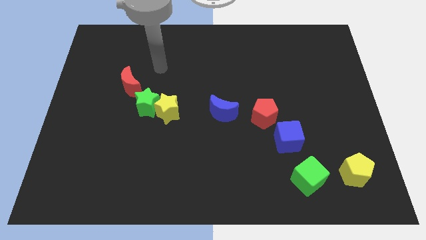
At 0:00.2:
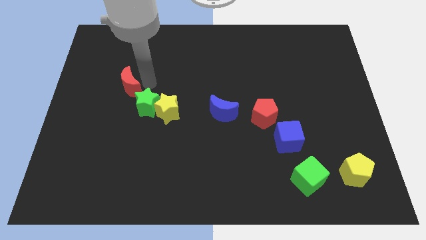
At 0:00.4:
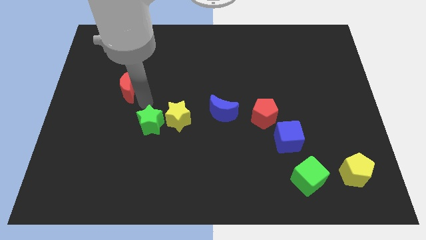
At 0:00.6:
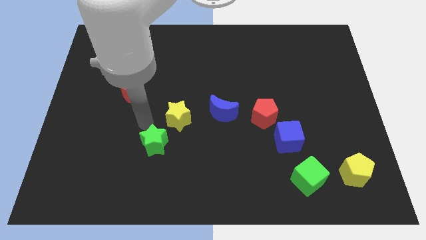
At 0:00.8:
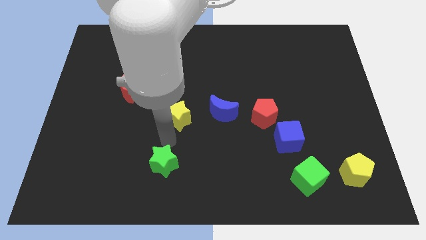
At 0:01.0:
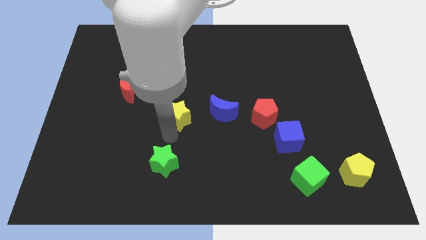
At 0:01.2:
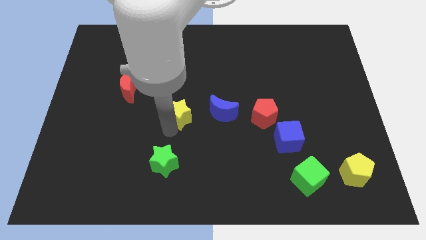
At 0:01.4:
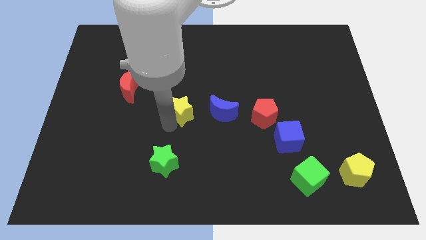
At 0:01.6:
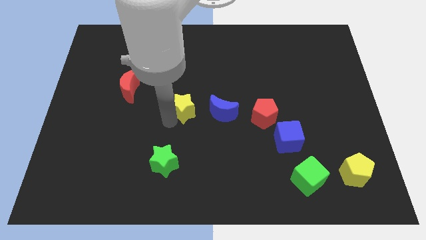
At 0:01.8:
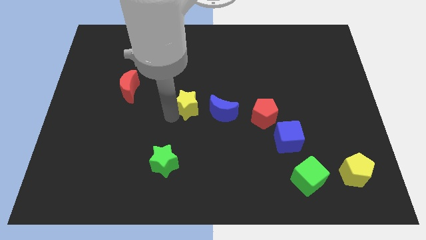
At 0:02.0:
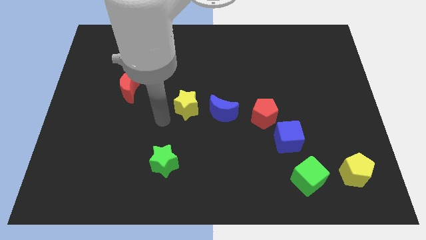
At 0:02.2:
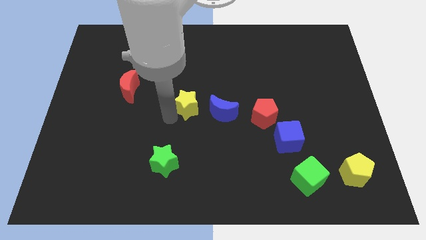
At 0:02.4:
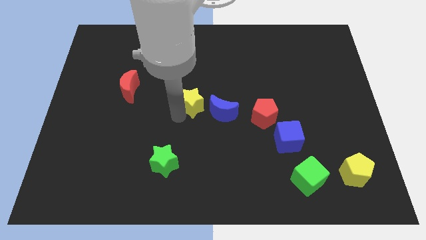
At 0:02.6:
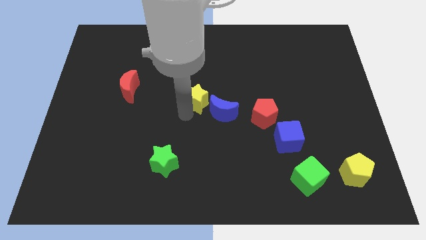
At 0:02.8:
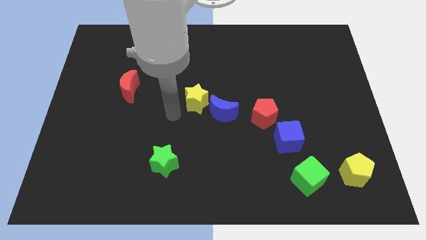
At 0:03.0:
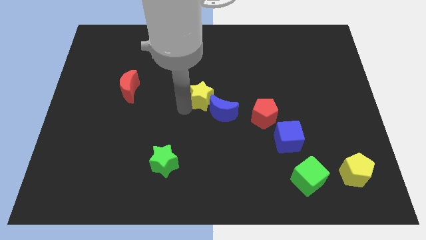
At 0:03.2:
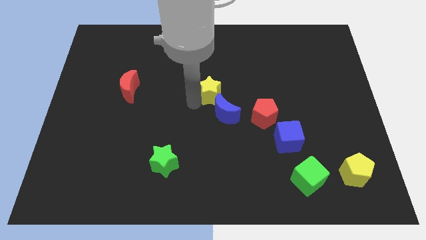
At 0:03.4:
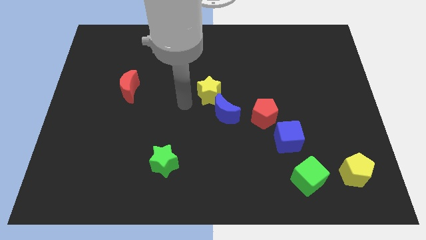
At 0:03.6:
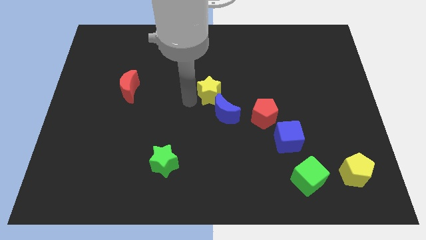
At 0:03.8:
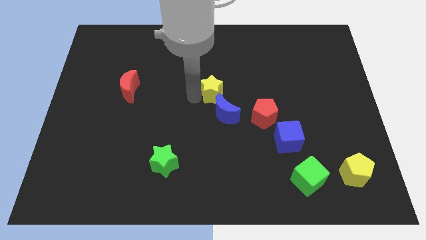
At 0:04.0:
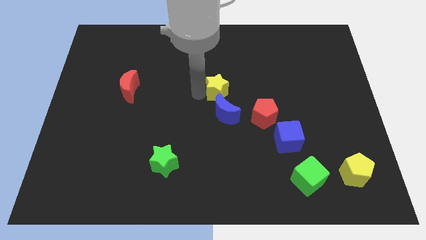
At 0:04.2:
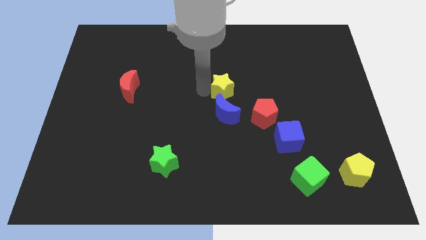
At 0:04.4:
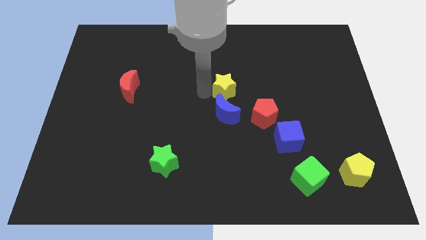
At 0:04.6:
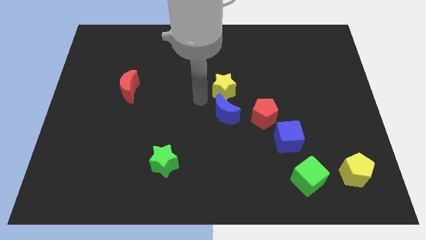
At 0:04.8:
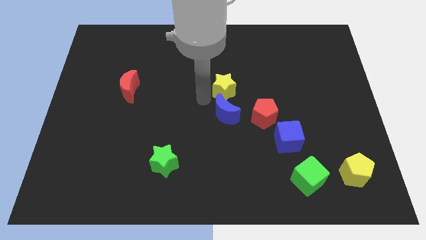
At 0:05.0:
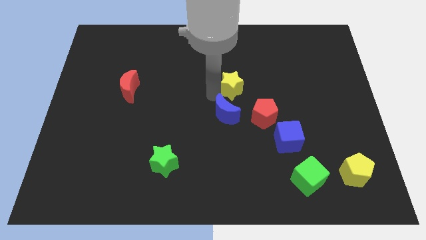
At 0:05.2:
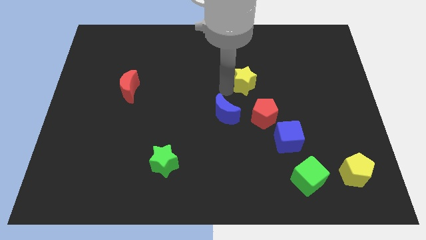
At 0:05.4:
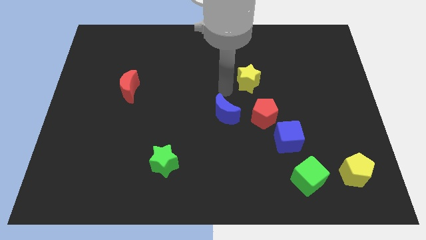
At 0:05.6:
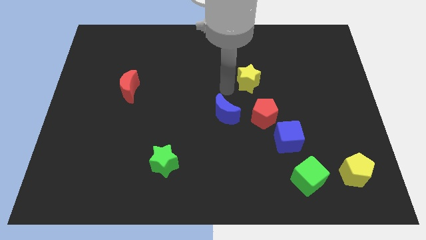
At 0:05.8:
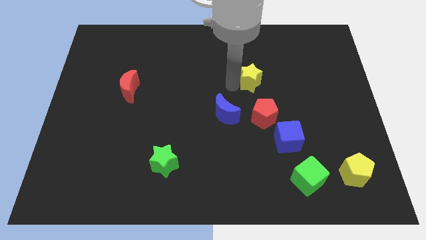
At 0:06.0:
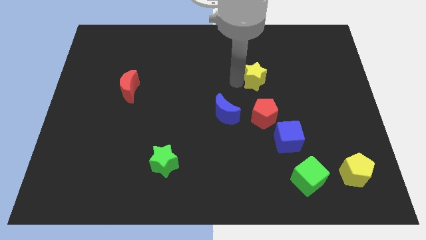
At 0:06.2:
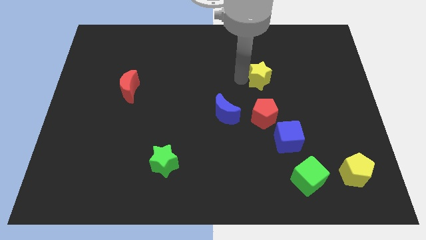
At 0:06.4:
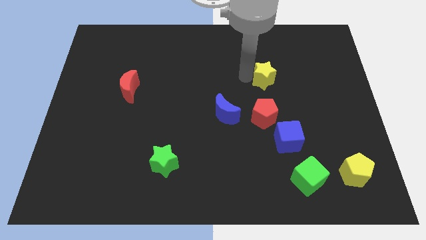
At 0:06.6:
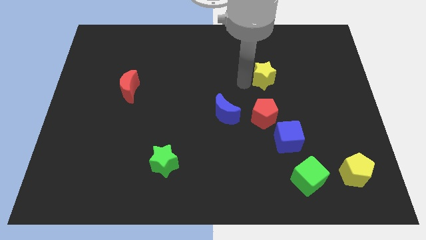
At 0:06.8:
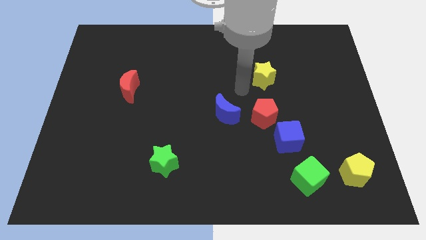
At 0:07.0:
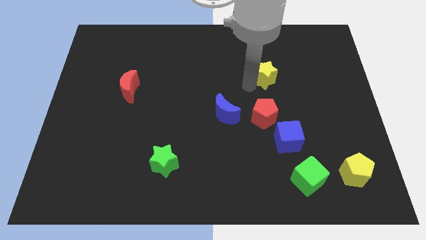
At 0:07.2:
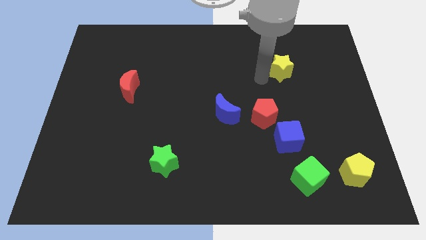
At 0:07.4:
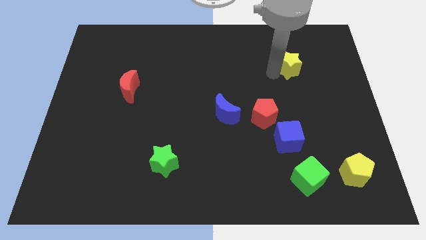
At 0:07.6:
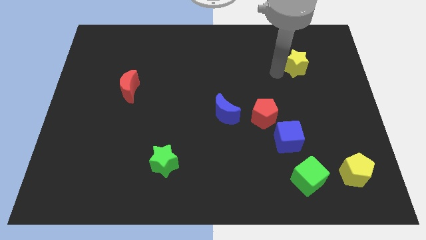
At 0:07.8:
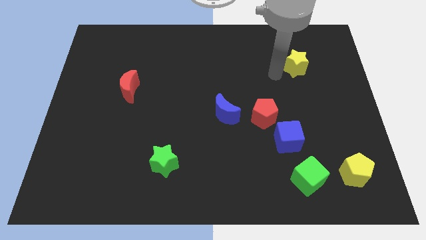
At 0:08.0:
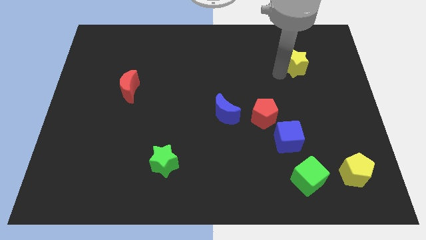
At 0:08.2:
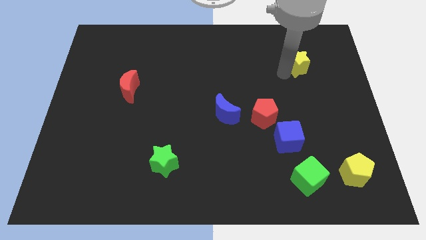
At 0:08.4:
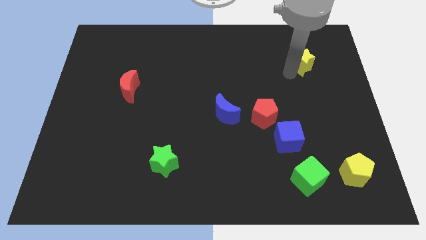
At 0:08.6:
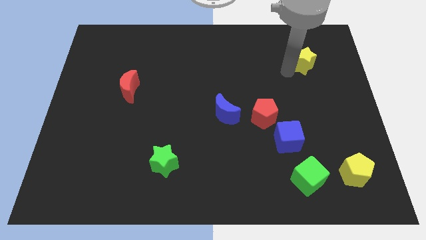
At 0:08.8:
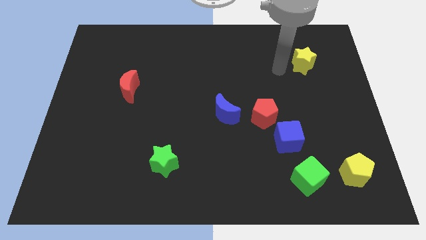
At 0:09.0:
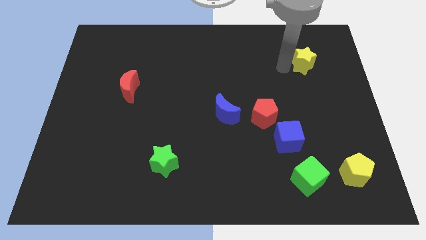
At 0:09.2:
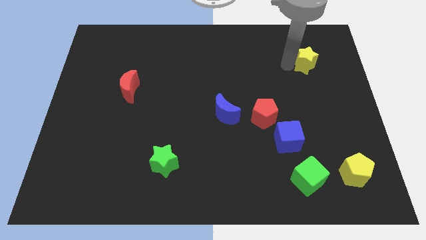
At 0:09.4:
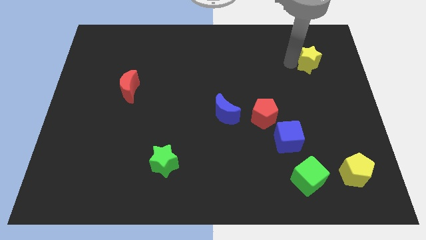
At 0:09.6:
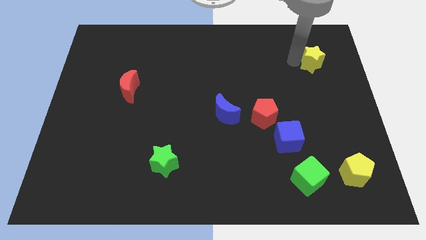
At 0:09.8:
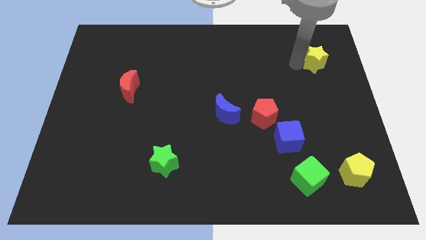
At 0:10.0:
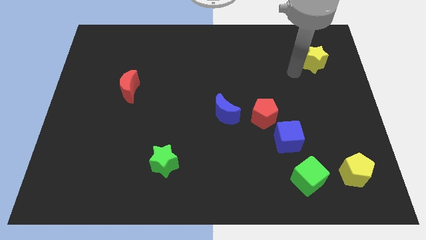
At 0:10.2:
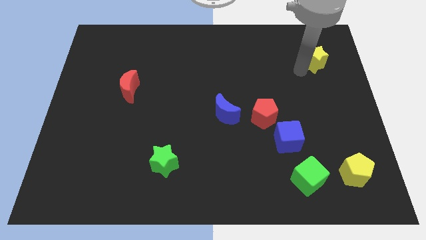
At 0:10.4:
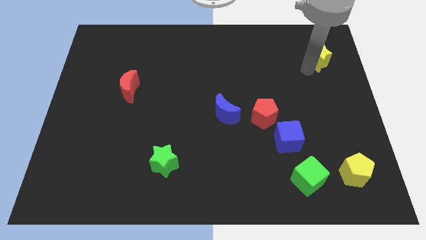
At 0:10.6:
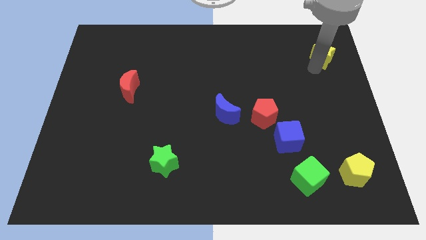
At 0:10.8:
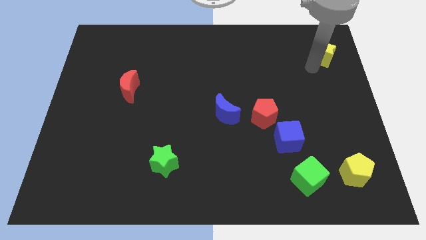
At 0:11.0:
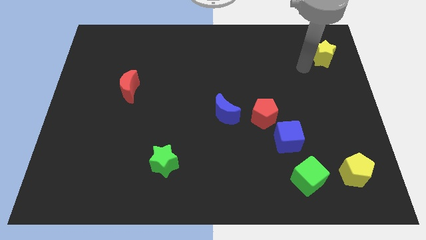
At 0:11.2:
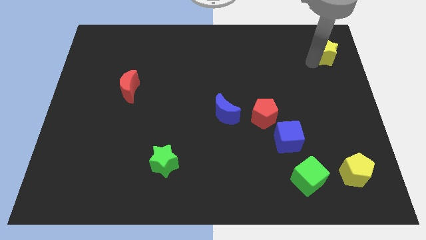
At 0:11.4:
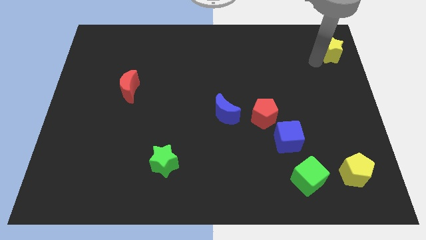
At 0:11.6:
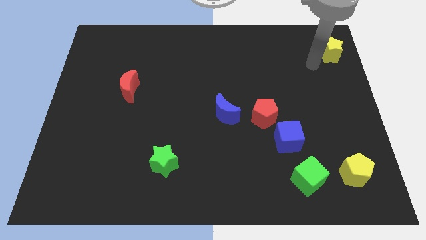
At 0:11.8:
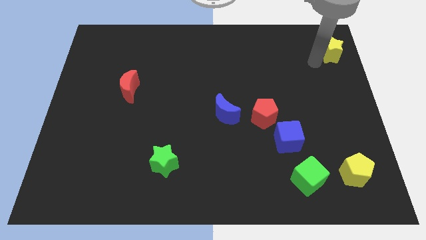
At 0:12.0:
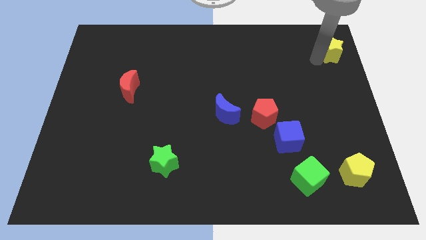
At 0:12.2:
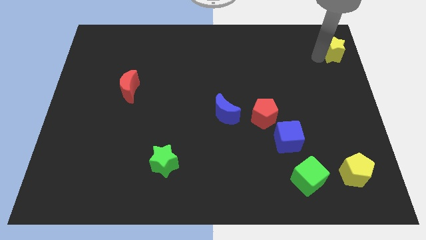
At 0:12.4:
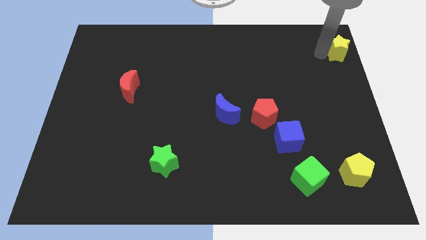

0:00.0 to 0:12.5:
slide the yellow star to the upper right corner

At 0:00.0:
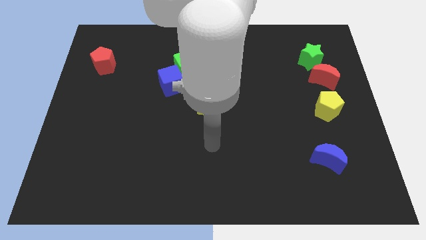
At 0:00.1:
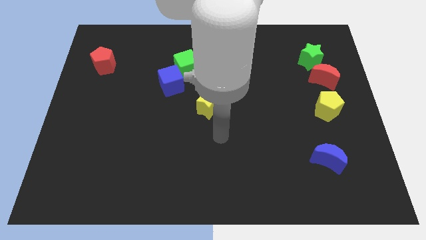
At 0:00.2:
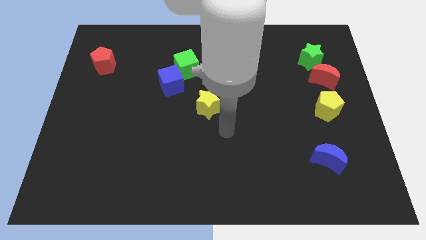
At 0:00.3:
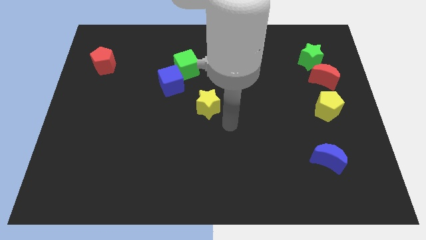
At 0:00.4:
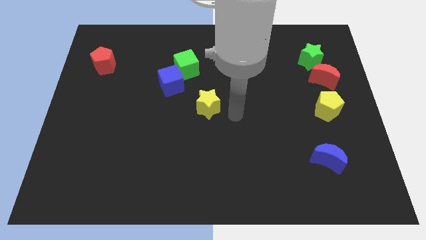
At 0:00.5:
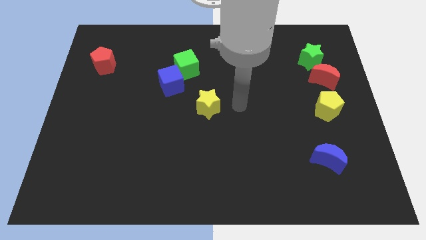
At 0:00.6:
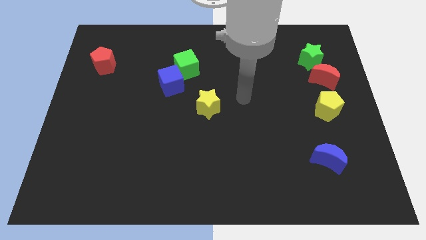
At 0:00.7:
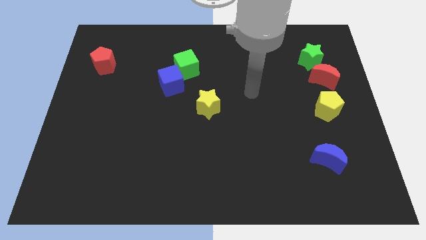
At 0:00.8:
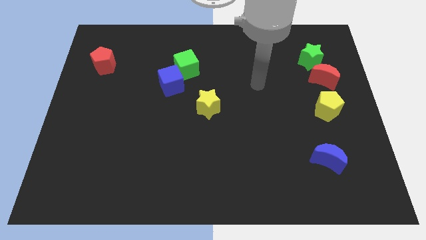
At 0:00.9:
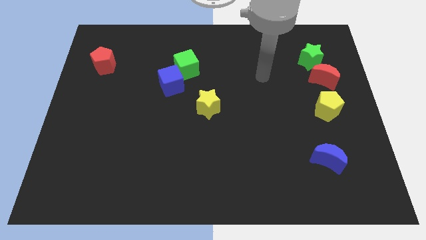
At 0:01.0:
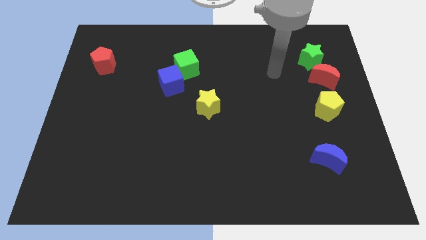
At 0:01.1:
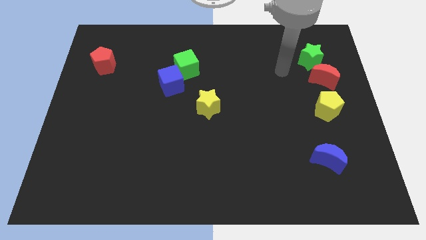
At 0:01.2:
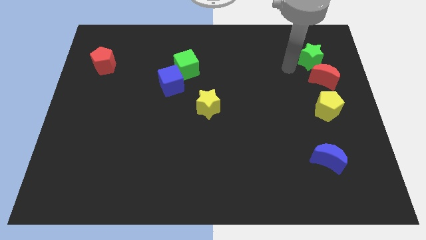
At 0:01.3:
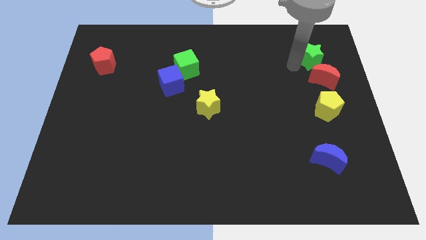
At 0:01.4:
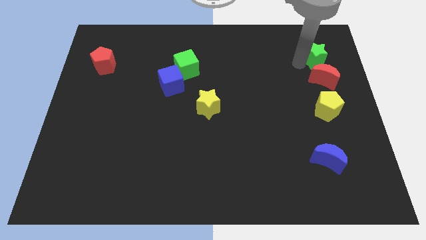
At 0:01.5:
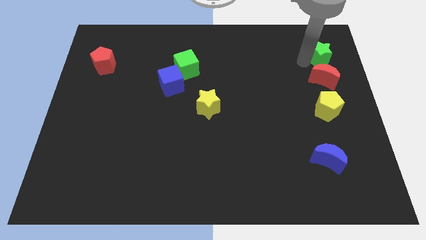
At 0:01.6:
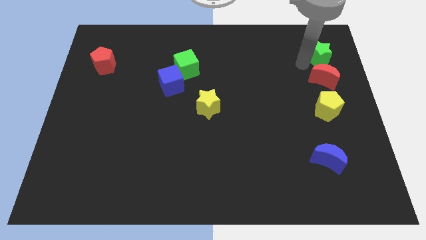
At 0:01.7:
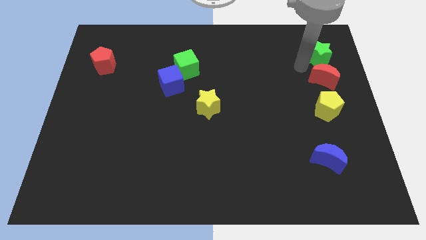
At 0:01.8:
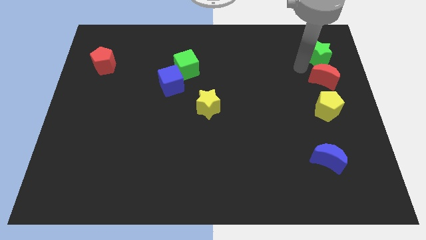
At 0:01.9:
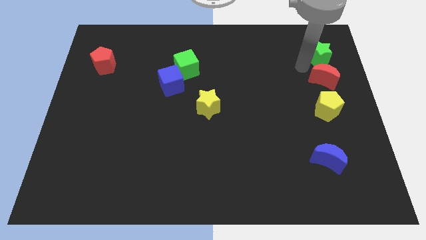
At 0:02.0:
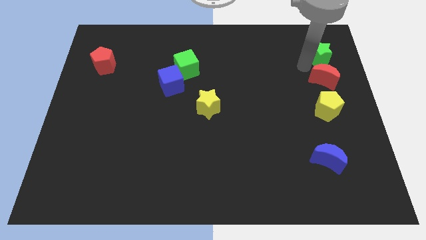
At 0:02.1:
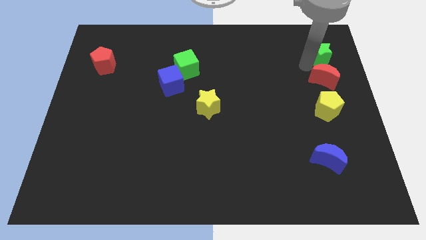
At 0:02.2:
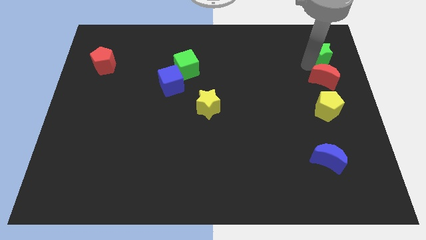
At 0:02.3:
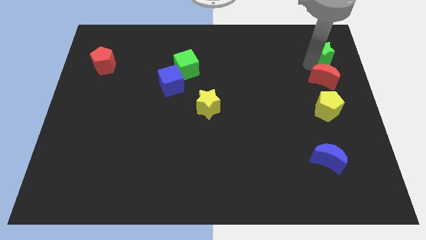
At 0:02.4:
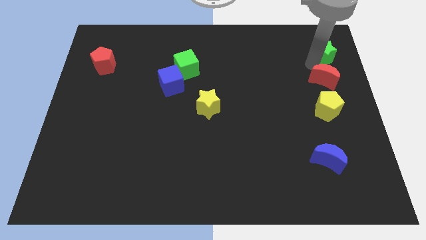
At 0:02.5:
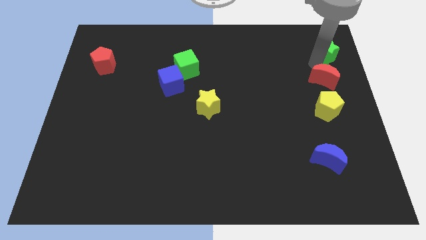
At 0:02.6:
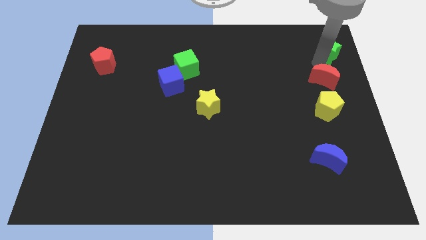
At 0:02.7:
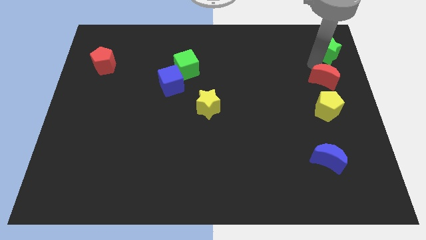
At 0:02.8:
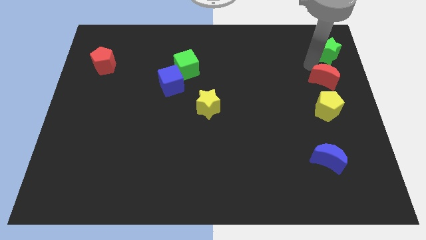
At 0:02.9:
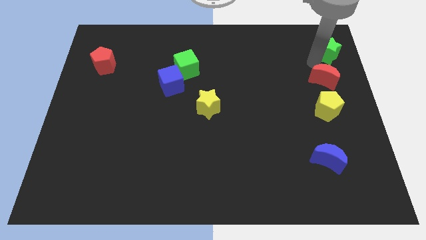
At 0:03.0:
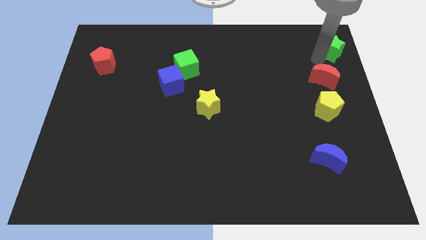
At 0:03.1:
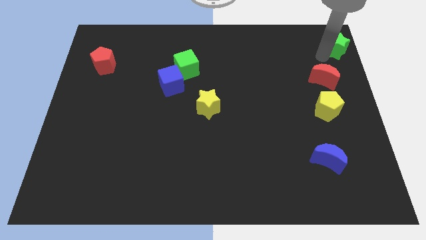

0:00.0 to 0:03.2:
slide the green star to the top right
